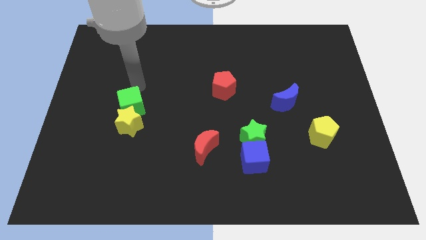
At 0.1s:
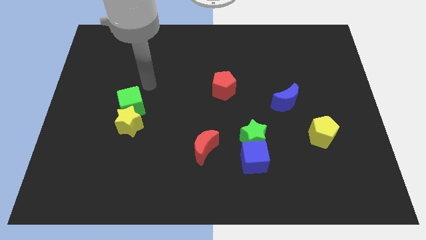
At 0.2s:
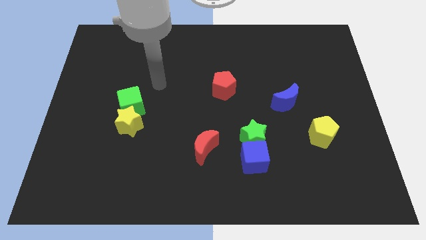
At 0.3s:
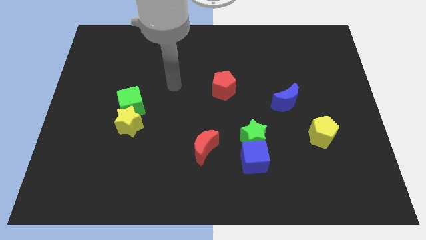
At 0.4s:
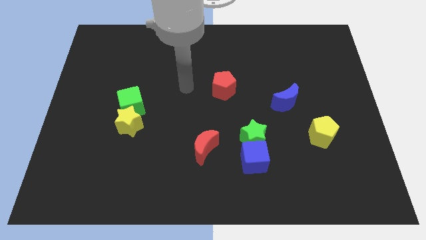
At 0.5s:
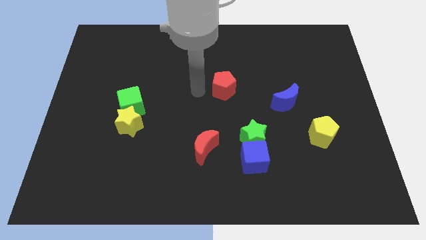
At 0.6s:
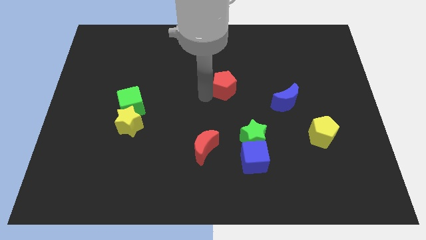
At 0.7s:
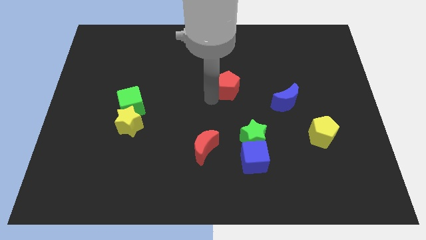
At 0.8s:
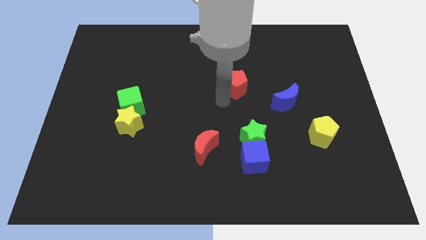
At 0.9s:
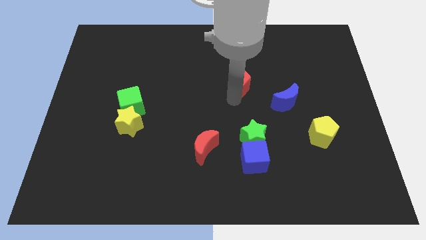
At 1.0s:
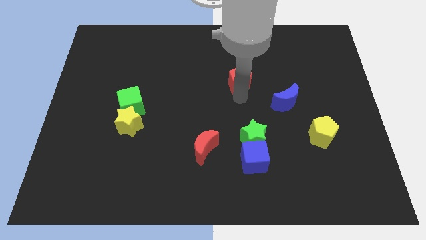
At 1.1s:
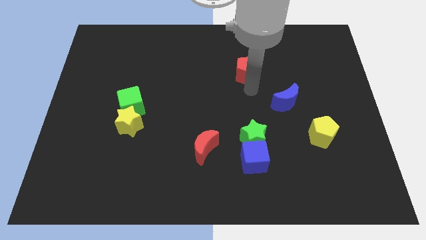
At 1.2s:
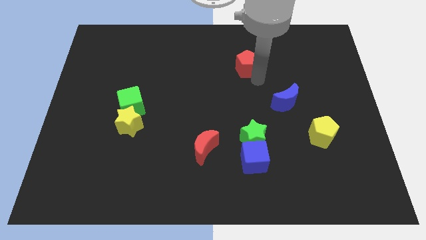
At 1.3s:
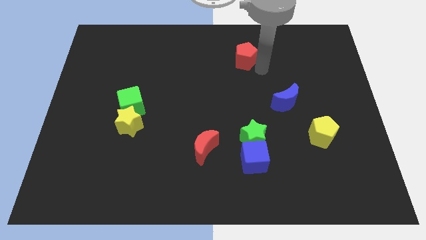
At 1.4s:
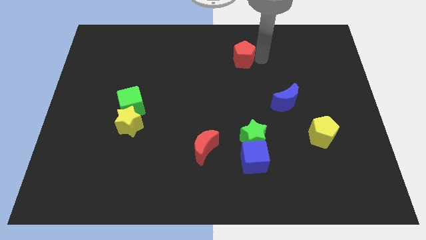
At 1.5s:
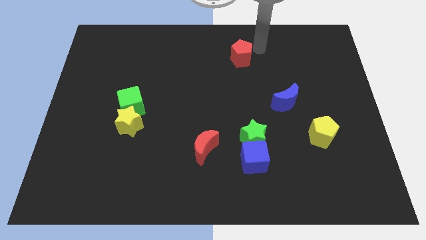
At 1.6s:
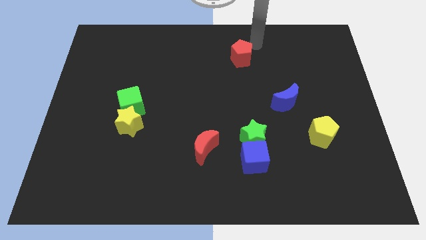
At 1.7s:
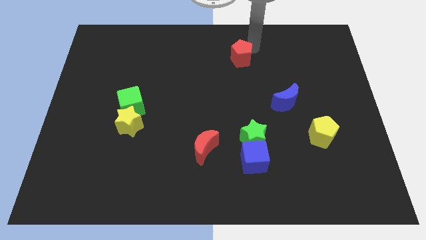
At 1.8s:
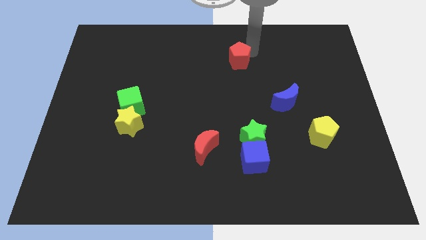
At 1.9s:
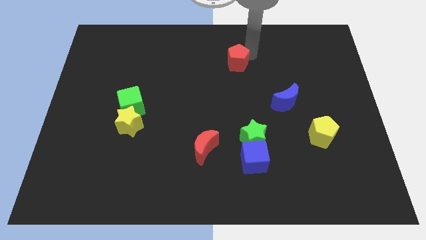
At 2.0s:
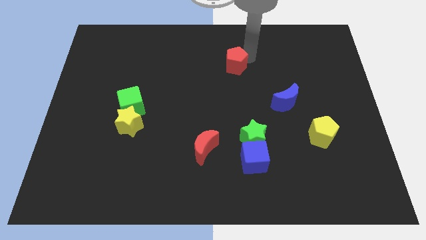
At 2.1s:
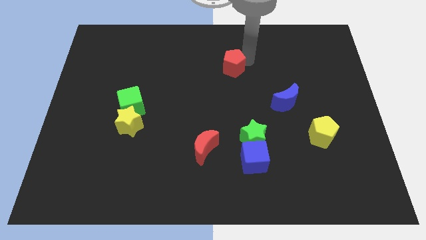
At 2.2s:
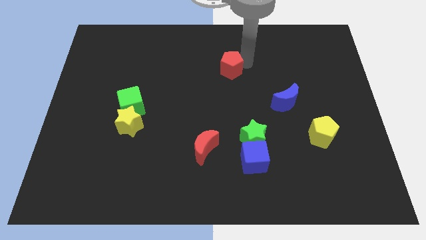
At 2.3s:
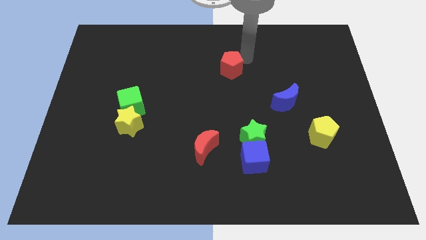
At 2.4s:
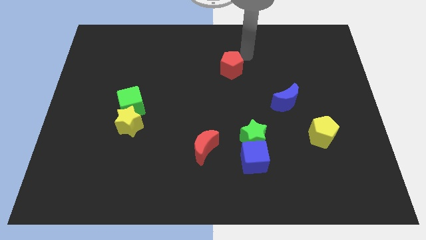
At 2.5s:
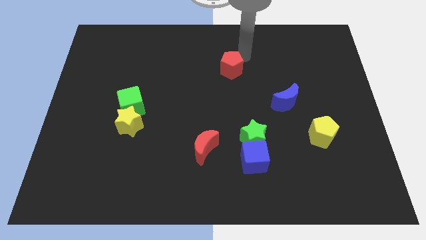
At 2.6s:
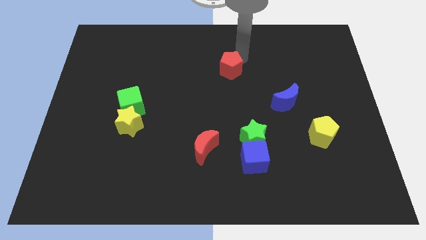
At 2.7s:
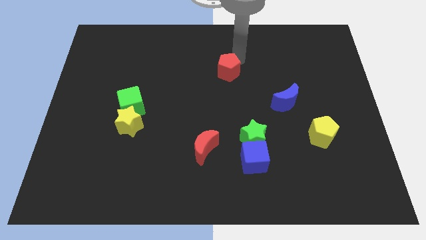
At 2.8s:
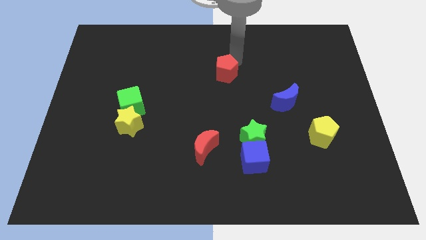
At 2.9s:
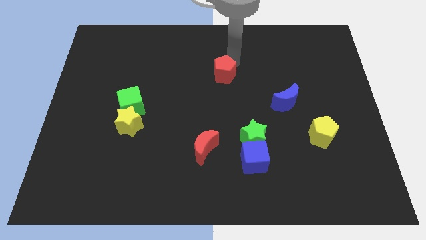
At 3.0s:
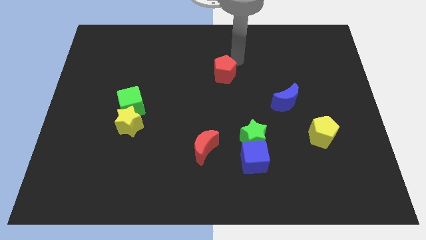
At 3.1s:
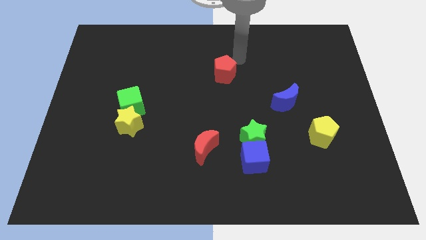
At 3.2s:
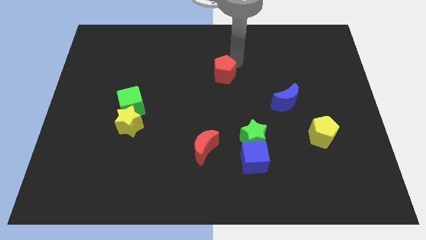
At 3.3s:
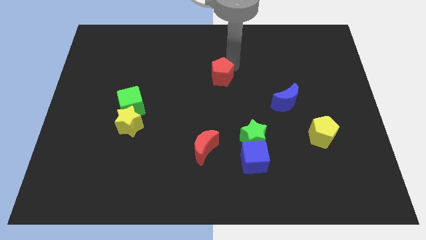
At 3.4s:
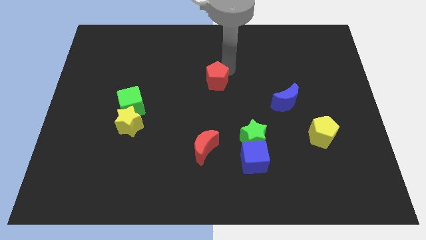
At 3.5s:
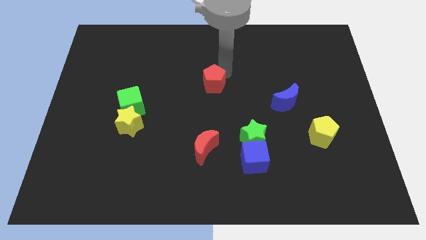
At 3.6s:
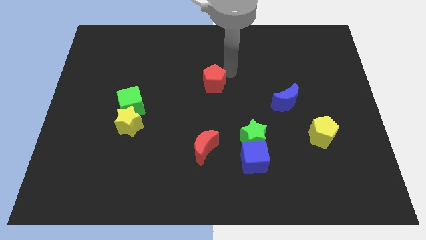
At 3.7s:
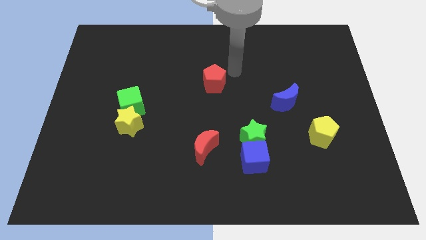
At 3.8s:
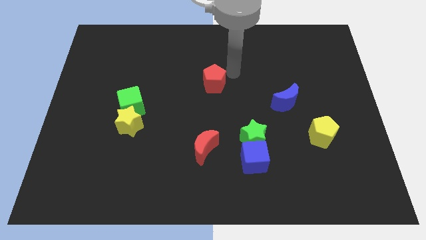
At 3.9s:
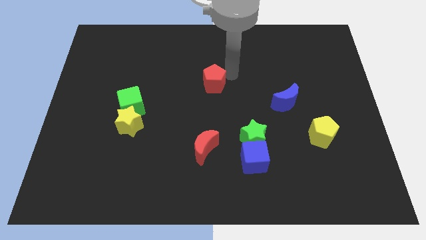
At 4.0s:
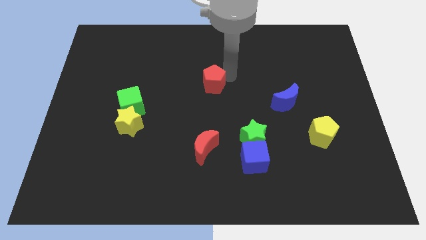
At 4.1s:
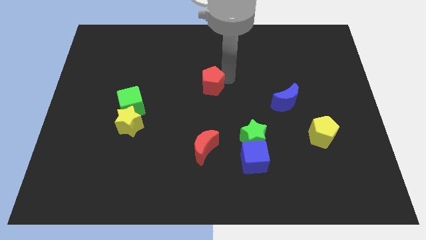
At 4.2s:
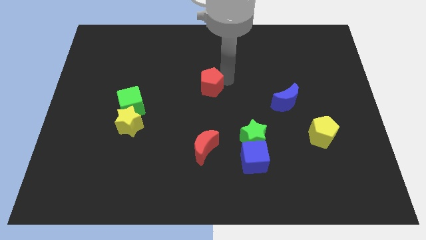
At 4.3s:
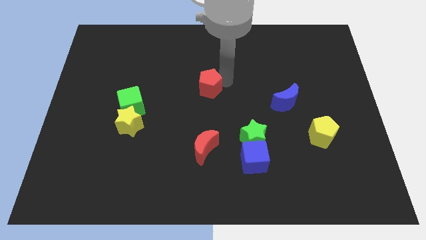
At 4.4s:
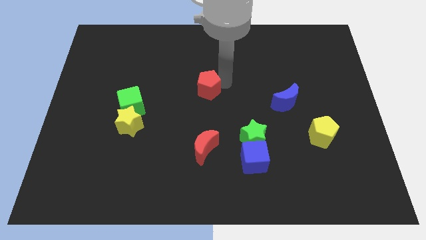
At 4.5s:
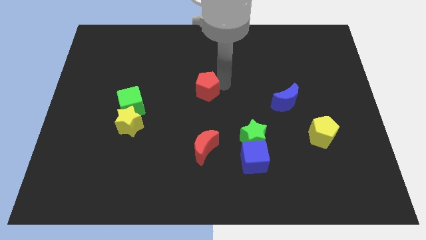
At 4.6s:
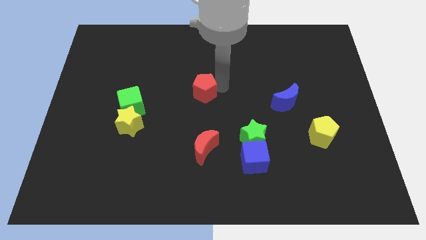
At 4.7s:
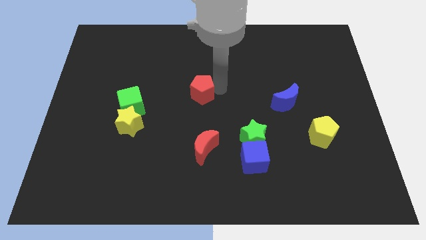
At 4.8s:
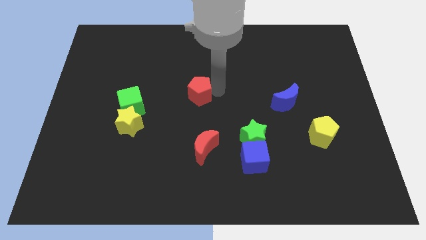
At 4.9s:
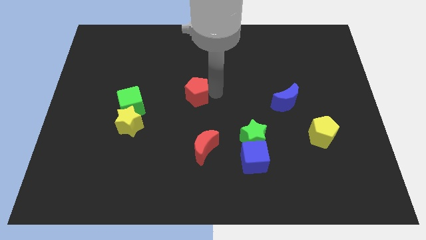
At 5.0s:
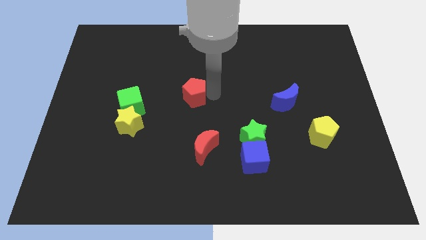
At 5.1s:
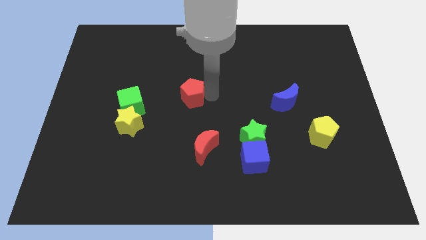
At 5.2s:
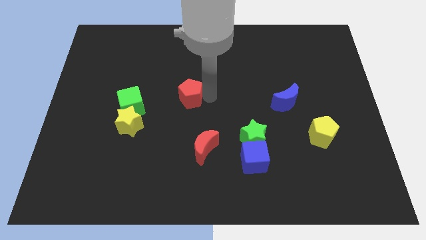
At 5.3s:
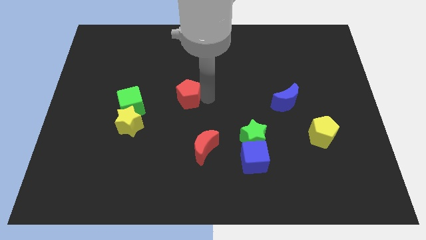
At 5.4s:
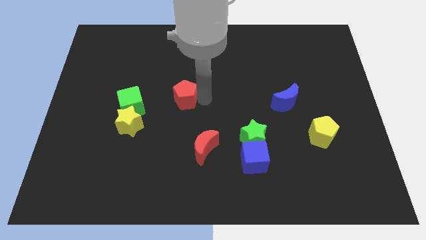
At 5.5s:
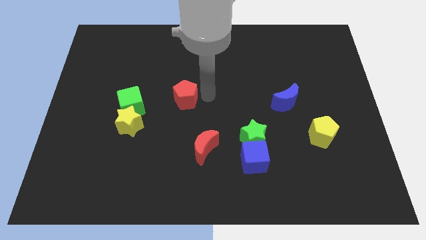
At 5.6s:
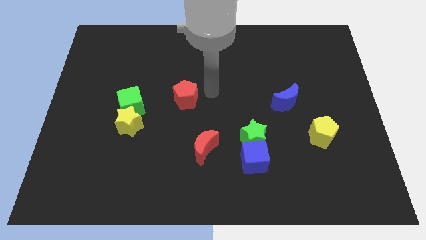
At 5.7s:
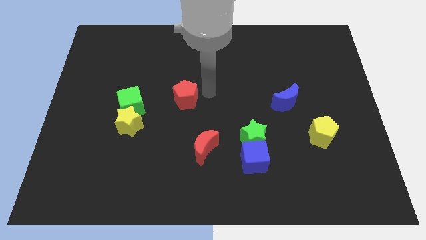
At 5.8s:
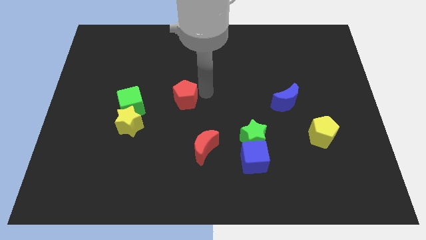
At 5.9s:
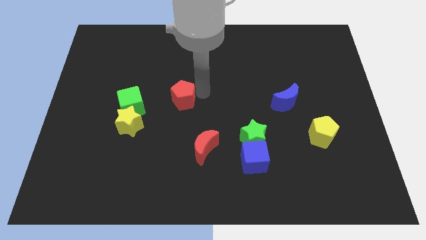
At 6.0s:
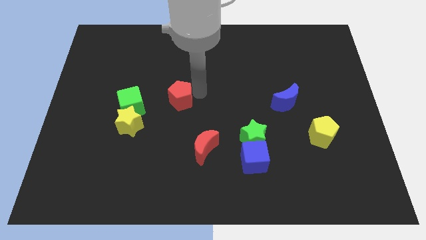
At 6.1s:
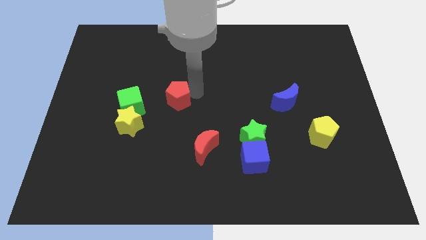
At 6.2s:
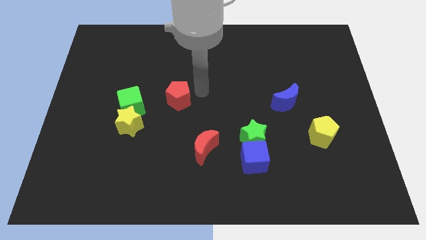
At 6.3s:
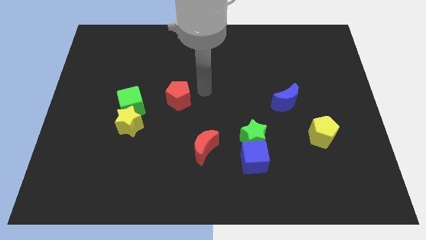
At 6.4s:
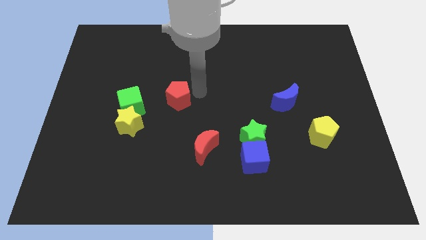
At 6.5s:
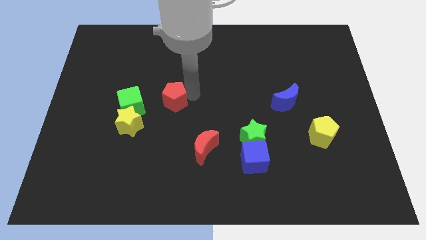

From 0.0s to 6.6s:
push the red pentagon to the top right side of the yellow star
